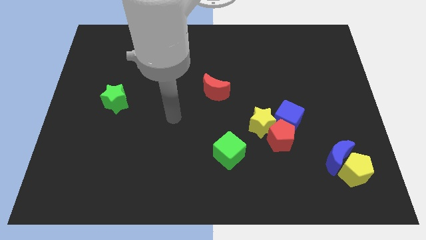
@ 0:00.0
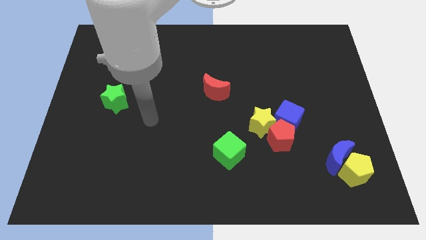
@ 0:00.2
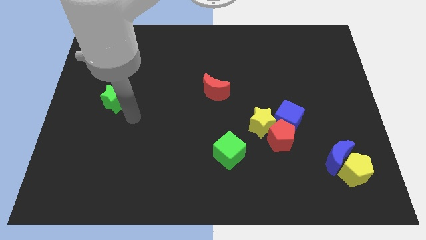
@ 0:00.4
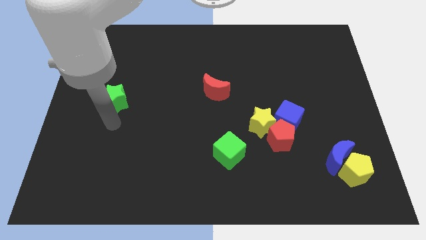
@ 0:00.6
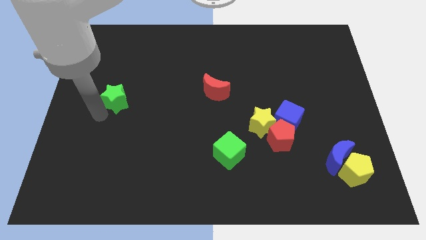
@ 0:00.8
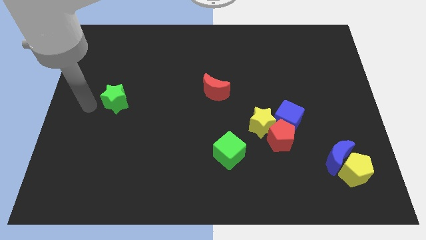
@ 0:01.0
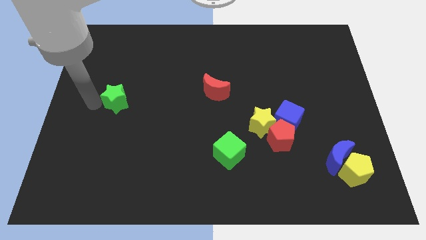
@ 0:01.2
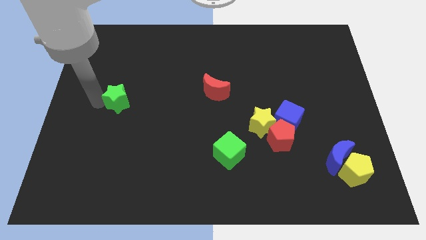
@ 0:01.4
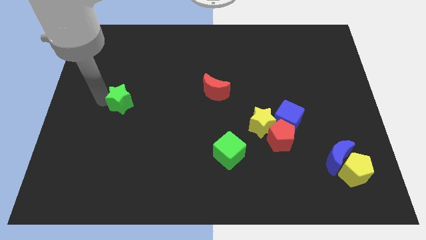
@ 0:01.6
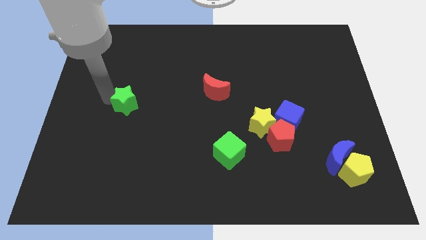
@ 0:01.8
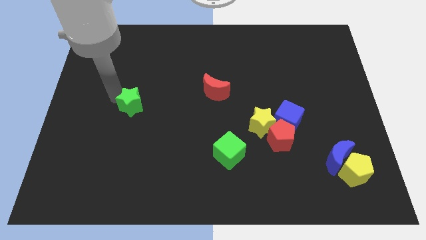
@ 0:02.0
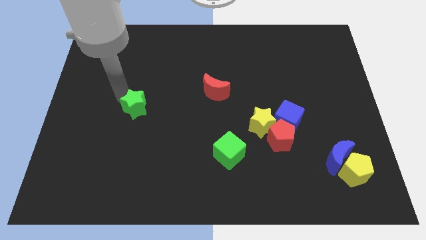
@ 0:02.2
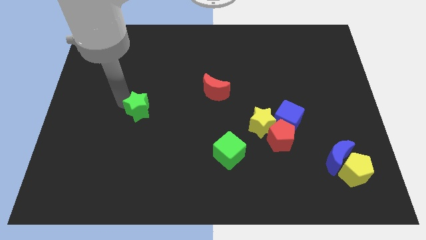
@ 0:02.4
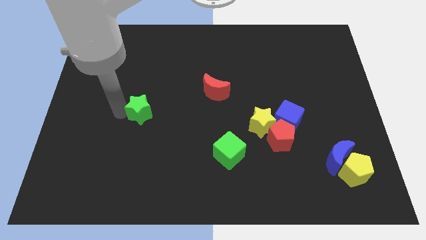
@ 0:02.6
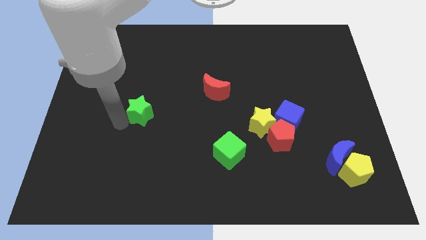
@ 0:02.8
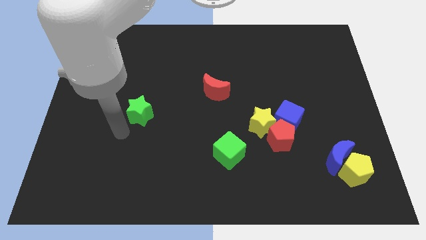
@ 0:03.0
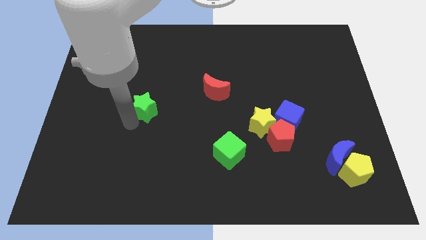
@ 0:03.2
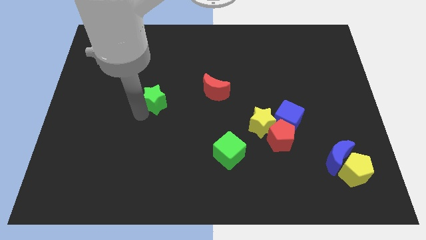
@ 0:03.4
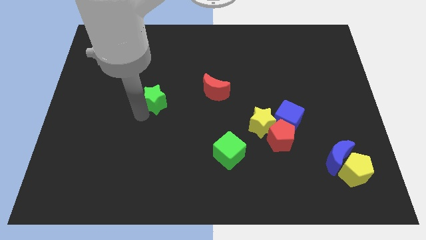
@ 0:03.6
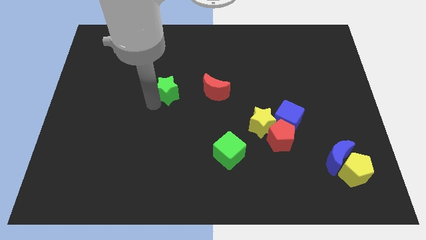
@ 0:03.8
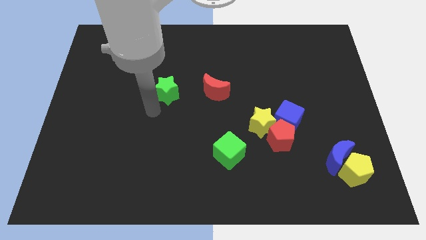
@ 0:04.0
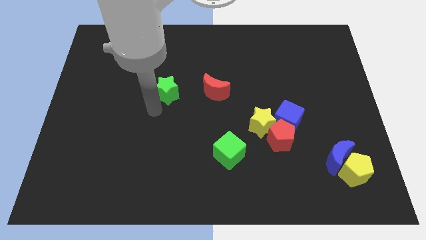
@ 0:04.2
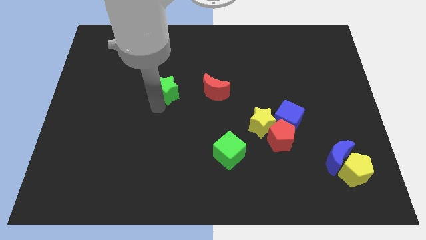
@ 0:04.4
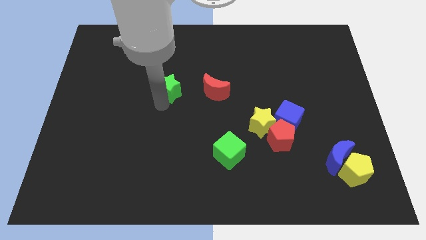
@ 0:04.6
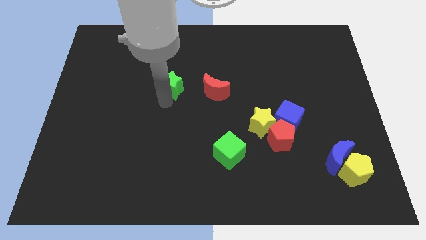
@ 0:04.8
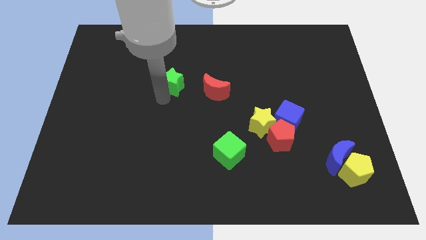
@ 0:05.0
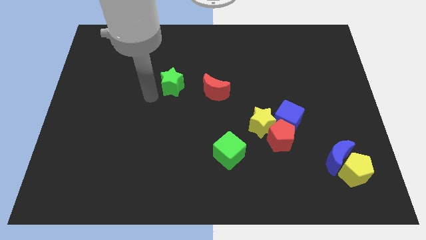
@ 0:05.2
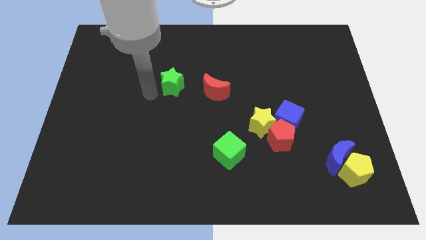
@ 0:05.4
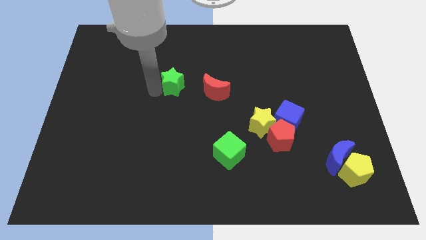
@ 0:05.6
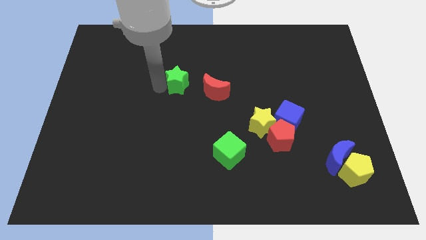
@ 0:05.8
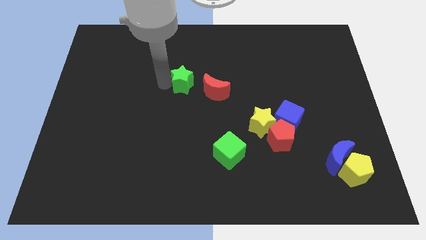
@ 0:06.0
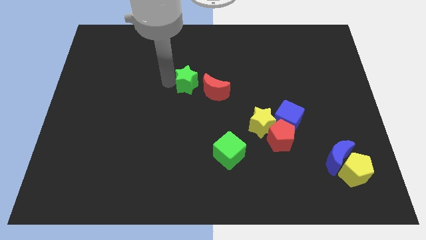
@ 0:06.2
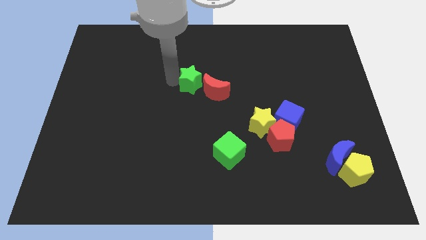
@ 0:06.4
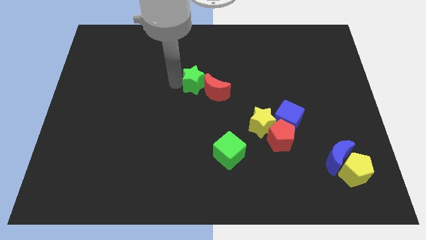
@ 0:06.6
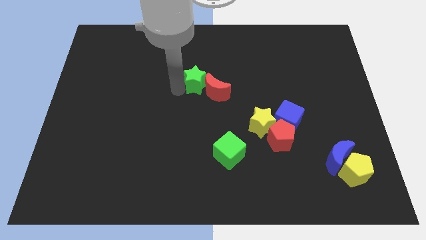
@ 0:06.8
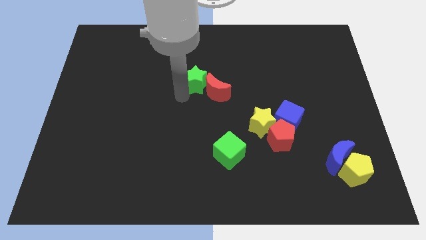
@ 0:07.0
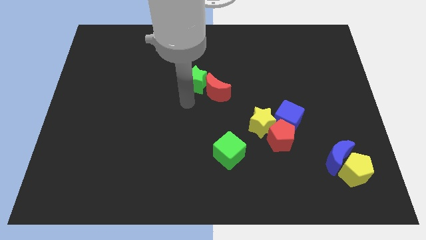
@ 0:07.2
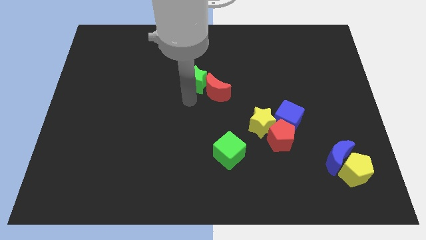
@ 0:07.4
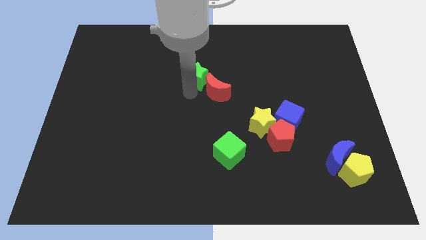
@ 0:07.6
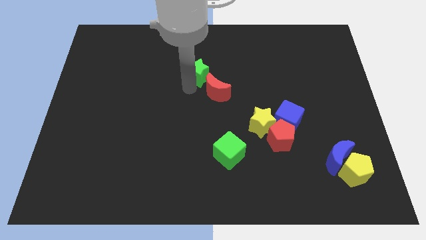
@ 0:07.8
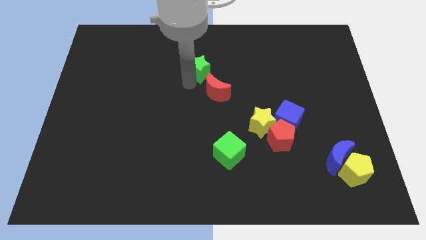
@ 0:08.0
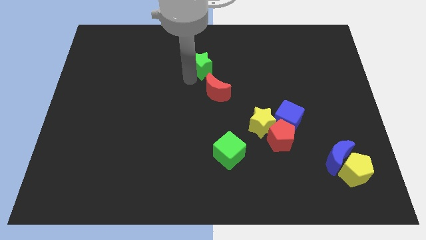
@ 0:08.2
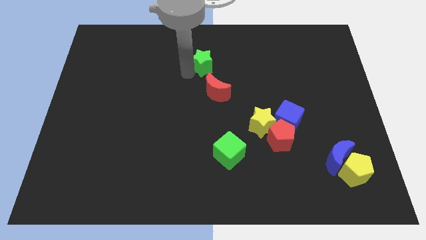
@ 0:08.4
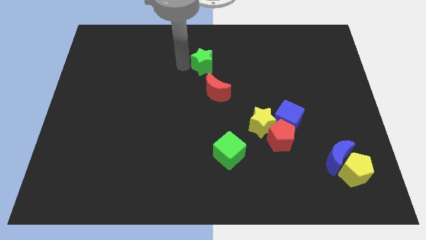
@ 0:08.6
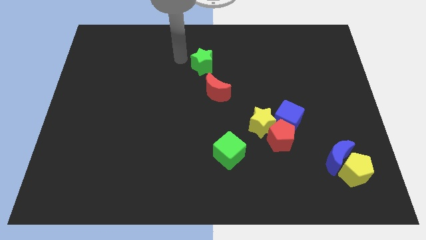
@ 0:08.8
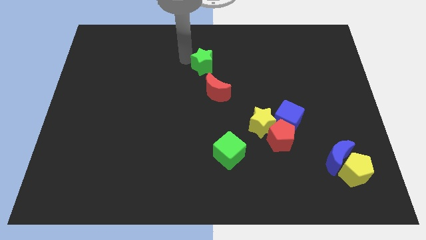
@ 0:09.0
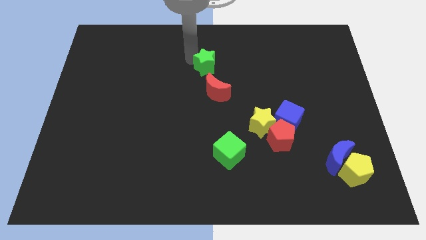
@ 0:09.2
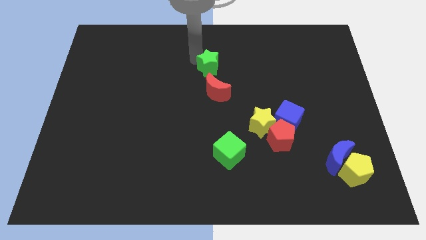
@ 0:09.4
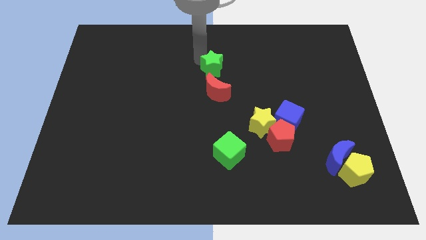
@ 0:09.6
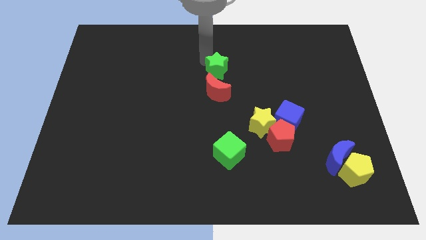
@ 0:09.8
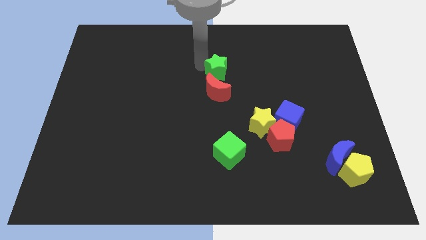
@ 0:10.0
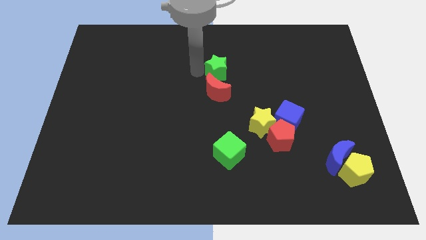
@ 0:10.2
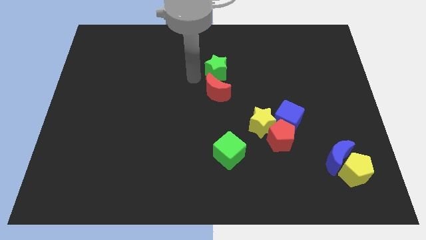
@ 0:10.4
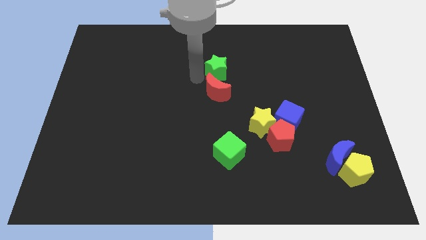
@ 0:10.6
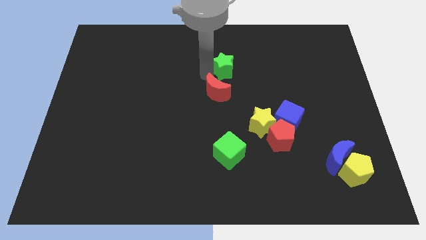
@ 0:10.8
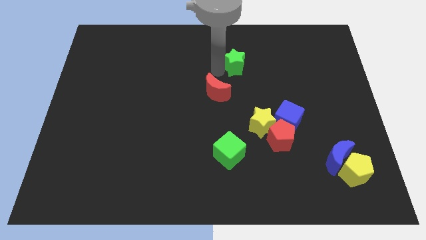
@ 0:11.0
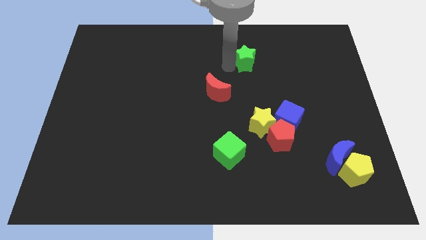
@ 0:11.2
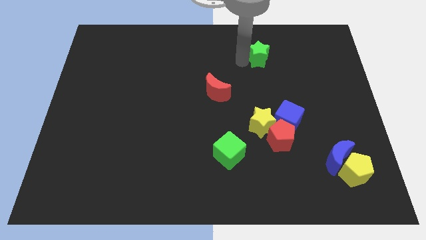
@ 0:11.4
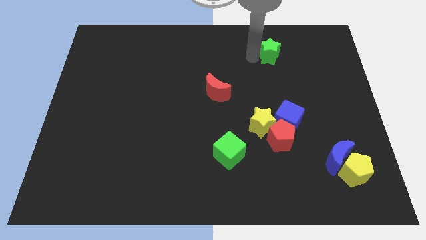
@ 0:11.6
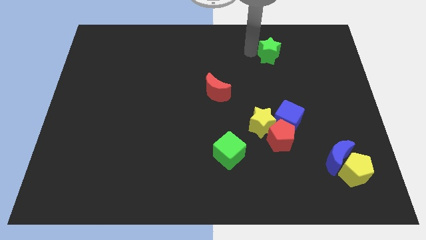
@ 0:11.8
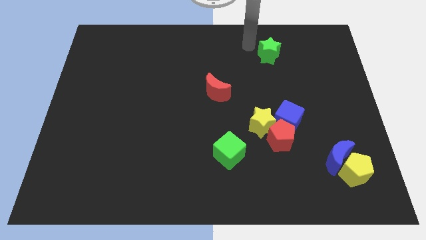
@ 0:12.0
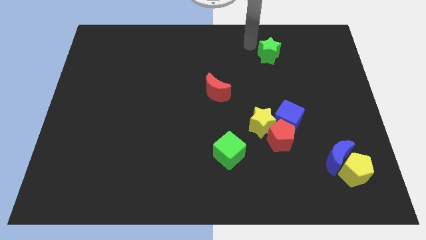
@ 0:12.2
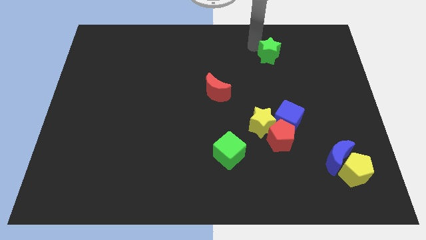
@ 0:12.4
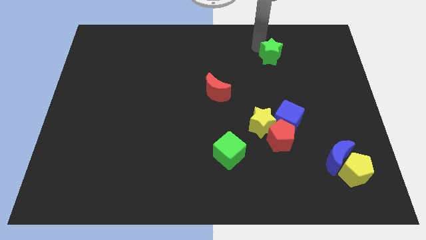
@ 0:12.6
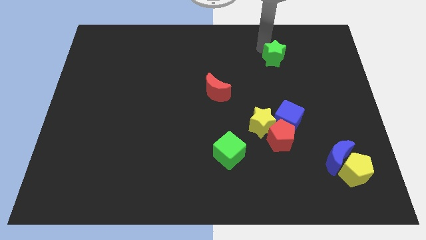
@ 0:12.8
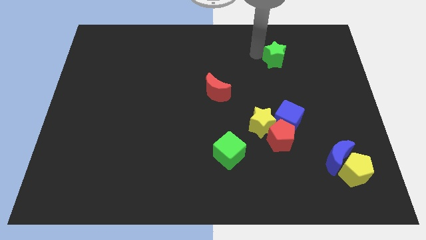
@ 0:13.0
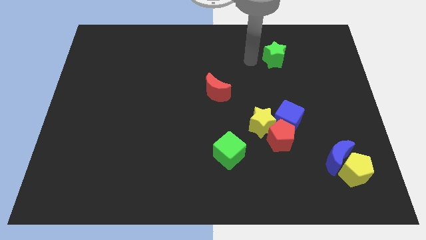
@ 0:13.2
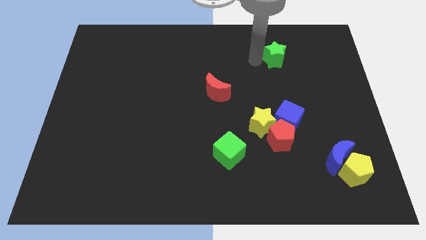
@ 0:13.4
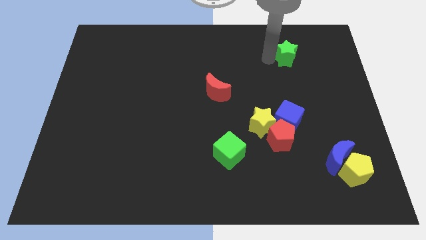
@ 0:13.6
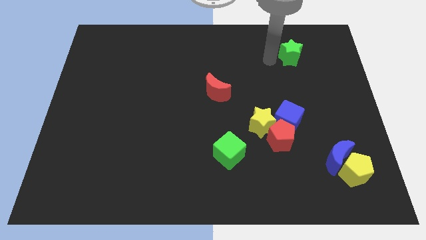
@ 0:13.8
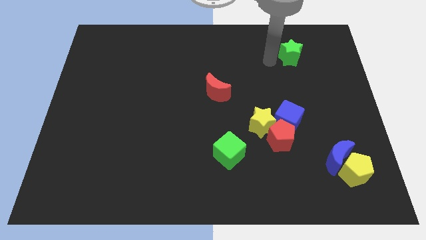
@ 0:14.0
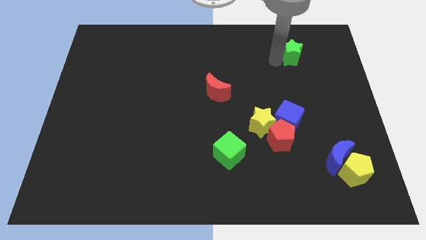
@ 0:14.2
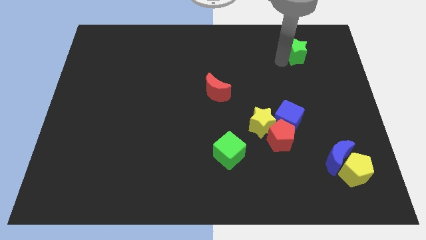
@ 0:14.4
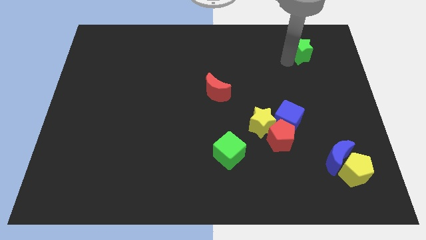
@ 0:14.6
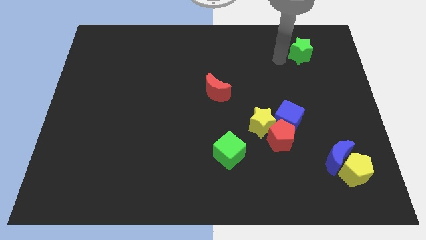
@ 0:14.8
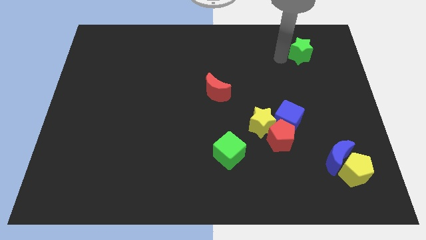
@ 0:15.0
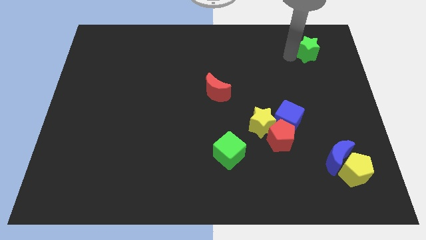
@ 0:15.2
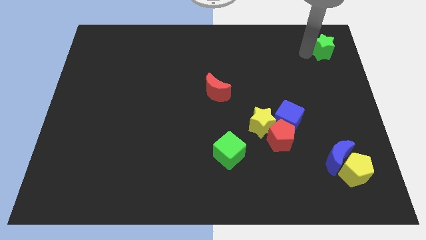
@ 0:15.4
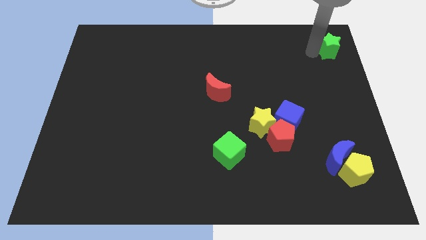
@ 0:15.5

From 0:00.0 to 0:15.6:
move the green star to the top right of the board
